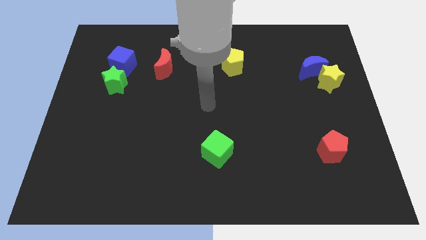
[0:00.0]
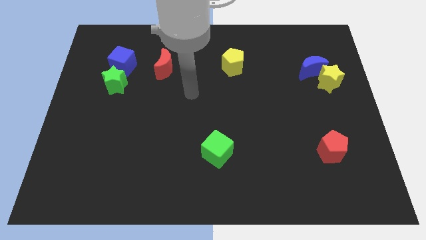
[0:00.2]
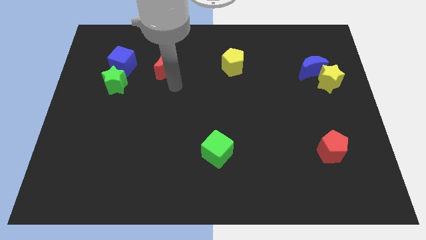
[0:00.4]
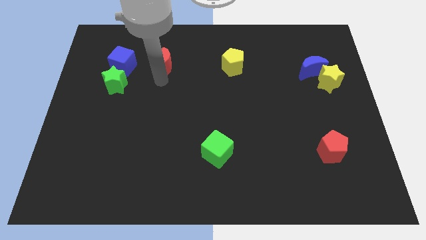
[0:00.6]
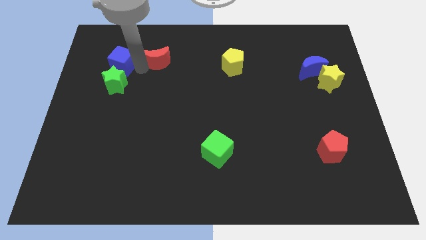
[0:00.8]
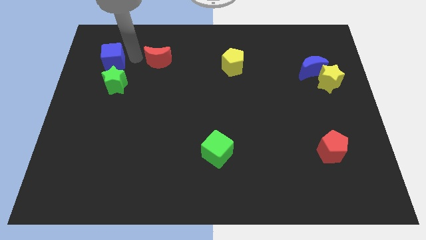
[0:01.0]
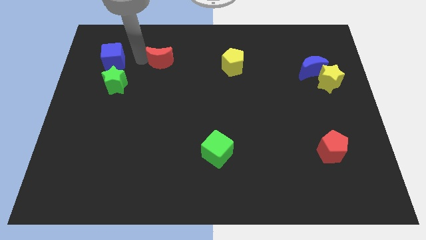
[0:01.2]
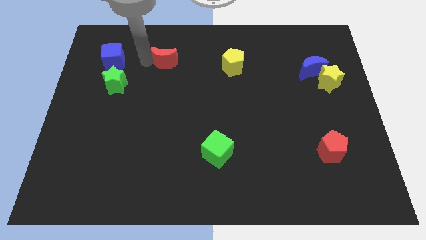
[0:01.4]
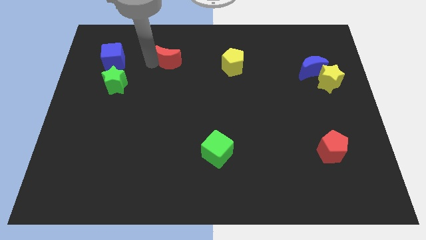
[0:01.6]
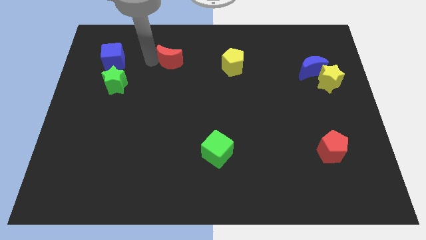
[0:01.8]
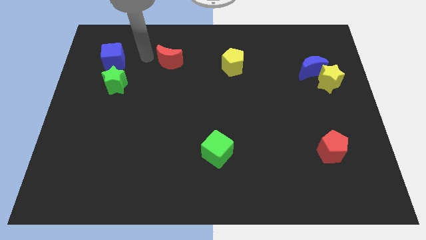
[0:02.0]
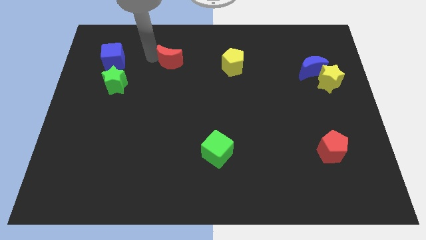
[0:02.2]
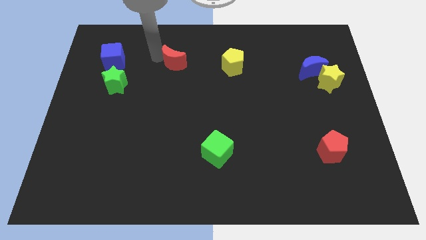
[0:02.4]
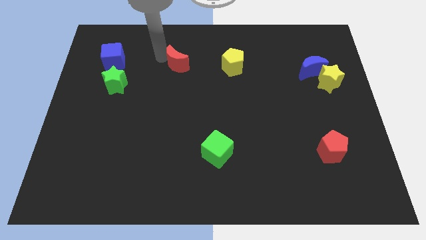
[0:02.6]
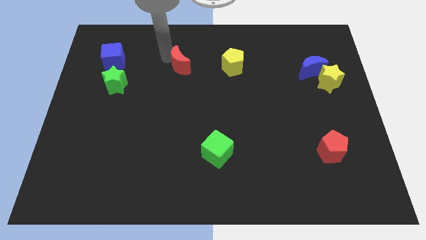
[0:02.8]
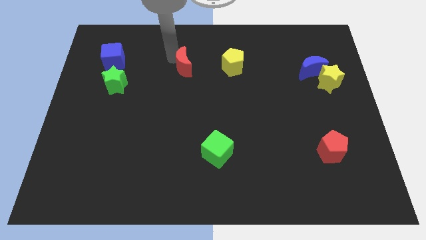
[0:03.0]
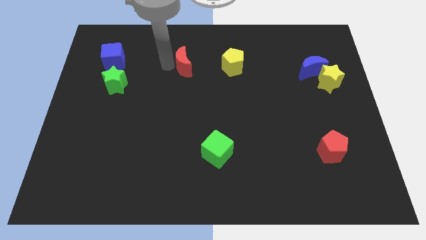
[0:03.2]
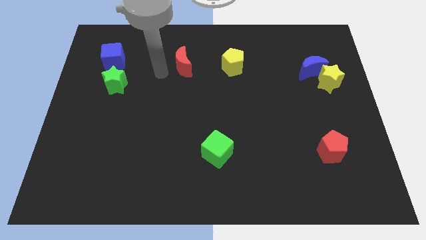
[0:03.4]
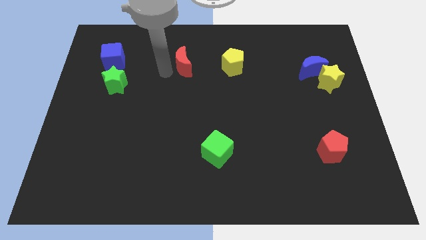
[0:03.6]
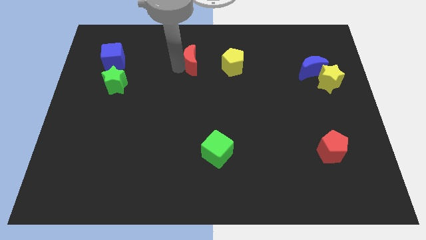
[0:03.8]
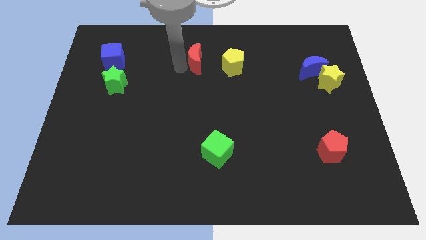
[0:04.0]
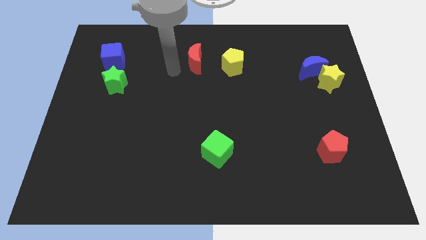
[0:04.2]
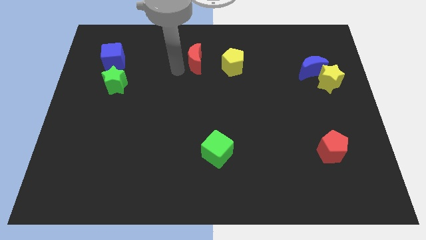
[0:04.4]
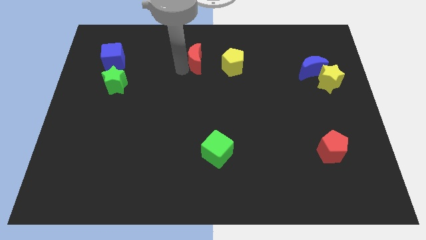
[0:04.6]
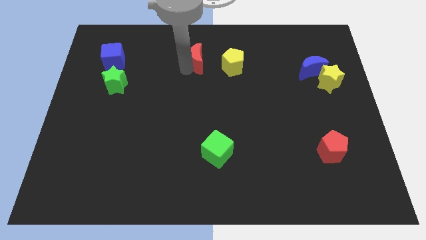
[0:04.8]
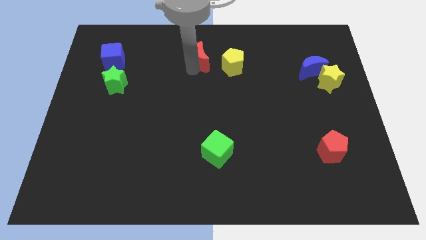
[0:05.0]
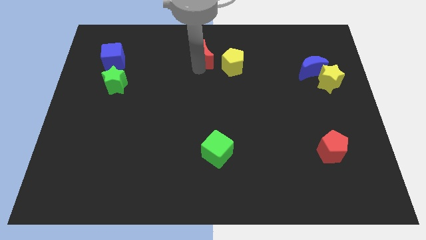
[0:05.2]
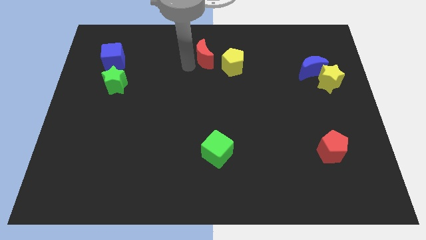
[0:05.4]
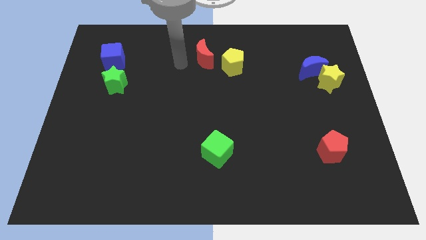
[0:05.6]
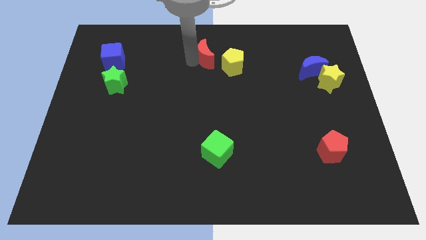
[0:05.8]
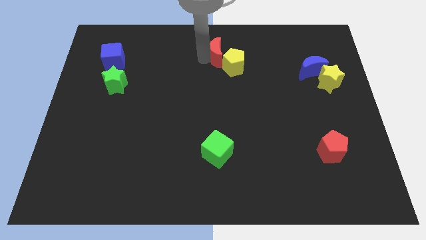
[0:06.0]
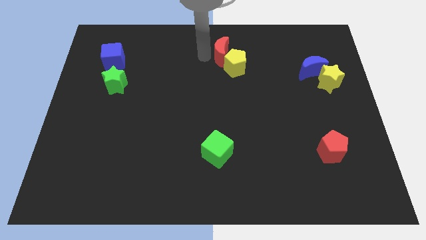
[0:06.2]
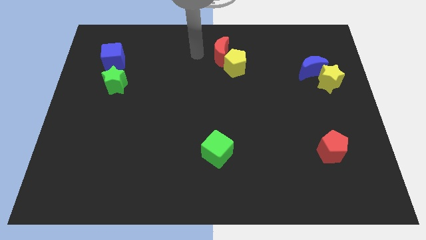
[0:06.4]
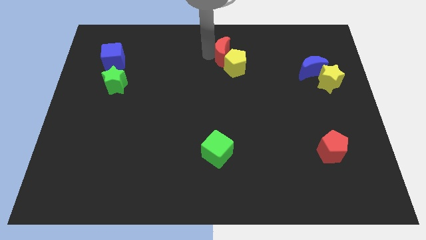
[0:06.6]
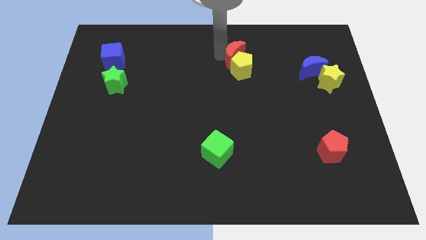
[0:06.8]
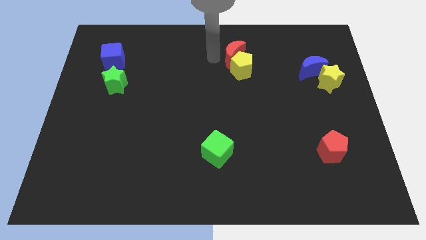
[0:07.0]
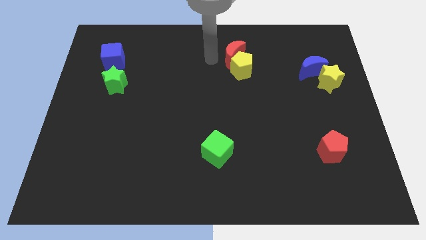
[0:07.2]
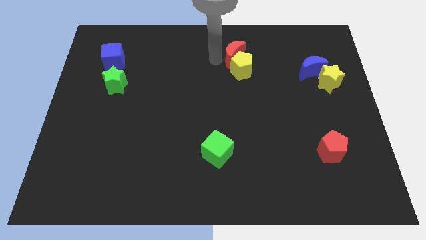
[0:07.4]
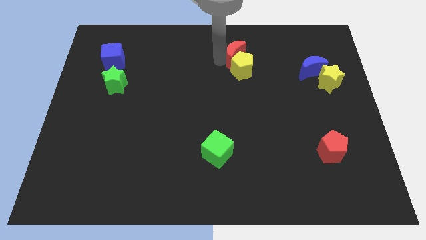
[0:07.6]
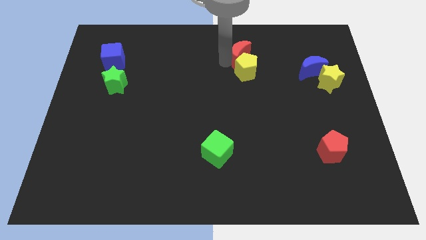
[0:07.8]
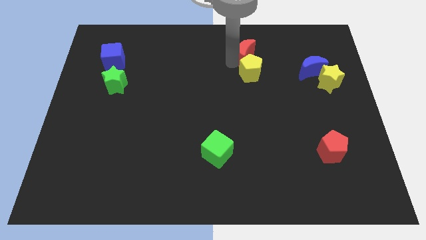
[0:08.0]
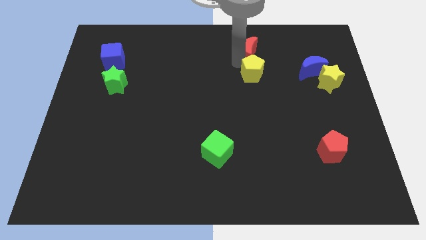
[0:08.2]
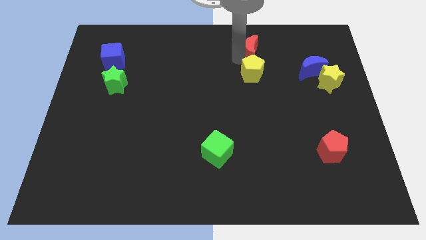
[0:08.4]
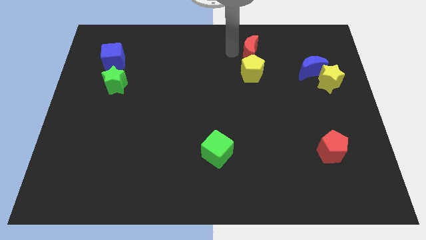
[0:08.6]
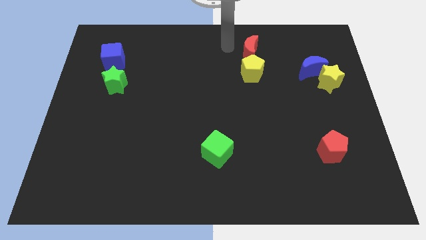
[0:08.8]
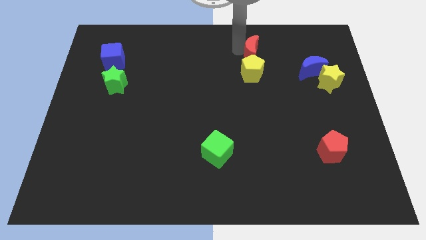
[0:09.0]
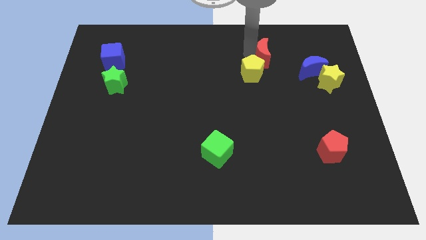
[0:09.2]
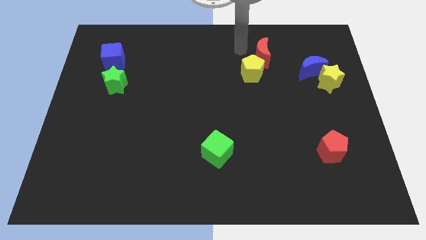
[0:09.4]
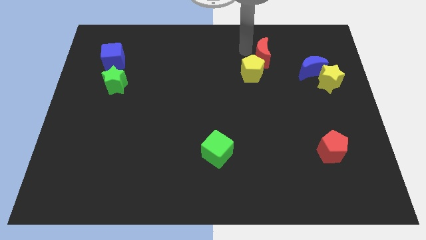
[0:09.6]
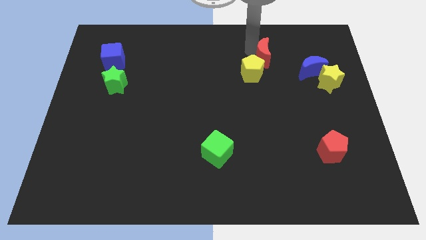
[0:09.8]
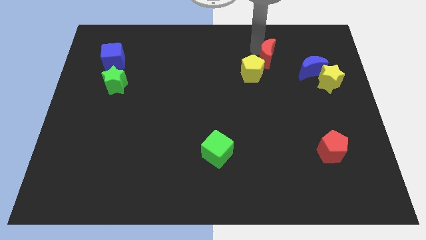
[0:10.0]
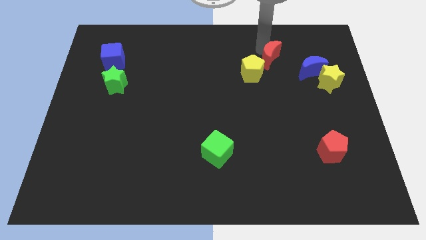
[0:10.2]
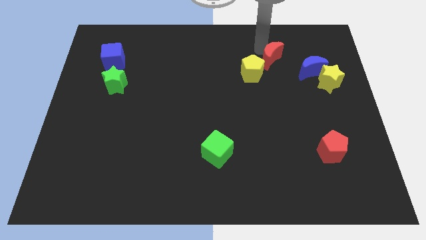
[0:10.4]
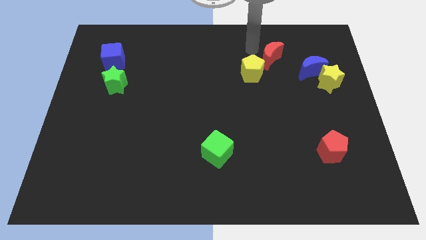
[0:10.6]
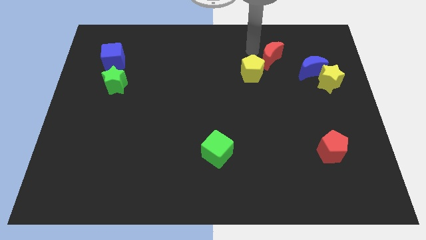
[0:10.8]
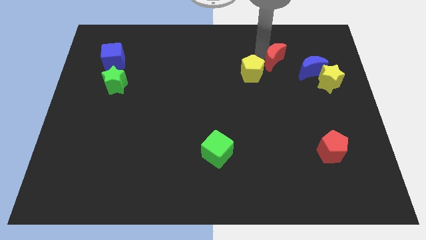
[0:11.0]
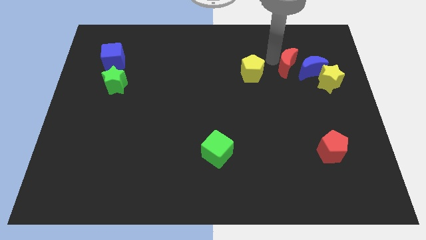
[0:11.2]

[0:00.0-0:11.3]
move the red moon next to the blue moon

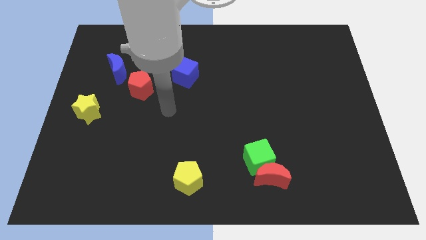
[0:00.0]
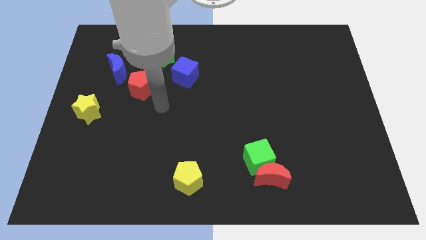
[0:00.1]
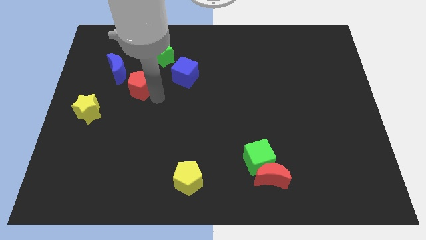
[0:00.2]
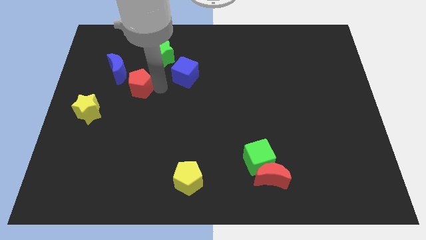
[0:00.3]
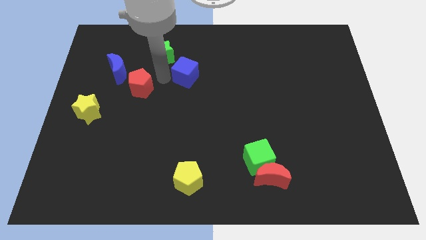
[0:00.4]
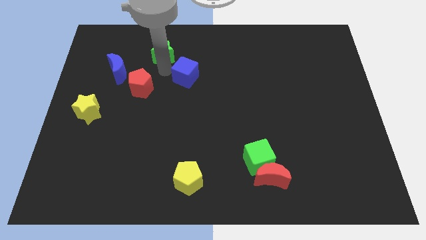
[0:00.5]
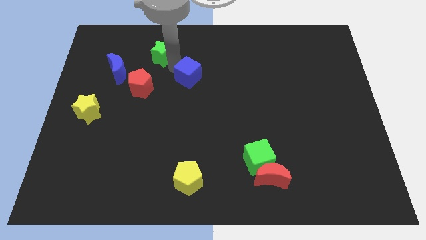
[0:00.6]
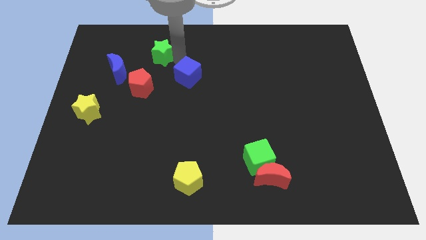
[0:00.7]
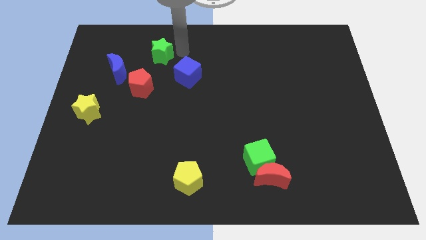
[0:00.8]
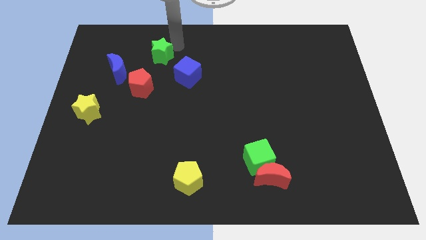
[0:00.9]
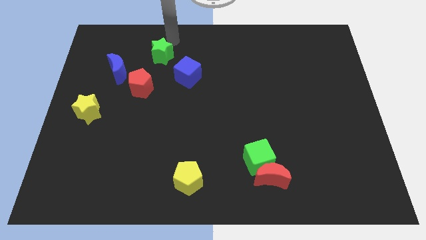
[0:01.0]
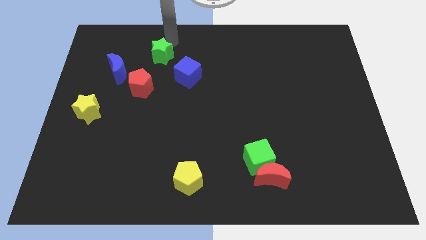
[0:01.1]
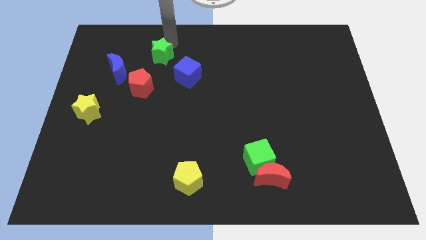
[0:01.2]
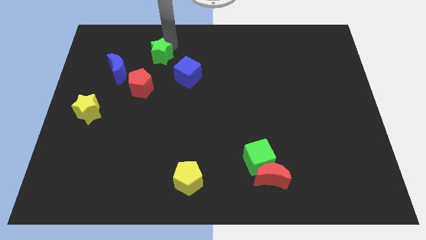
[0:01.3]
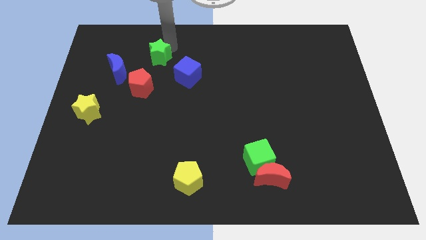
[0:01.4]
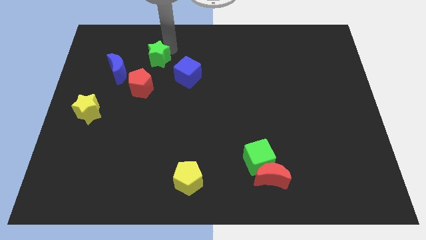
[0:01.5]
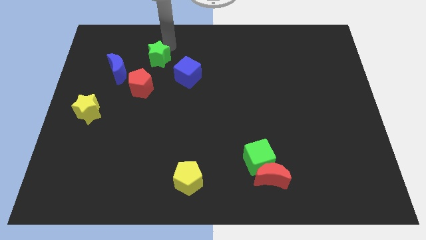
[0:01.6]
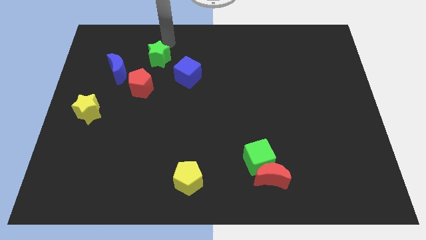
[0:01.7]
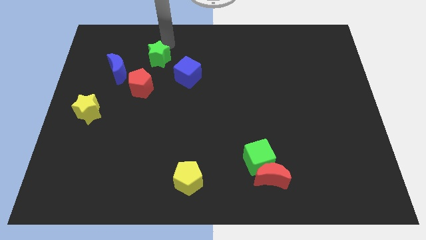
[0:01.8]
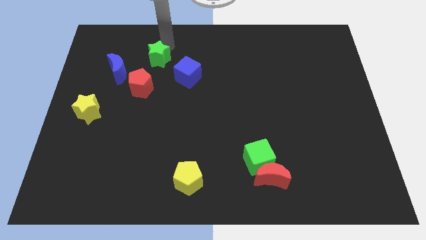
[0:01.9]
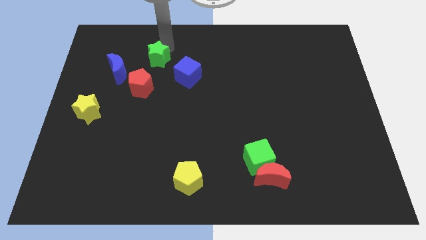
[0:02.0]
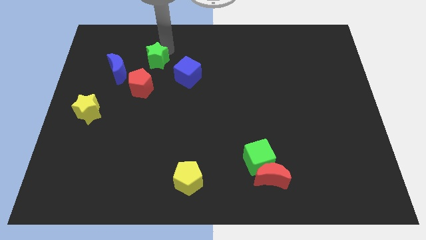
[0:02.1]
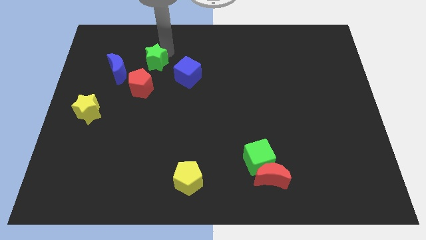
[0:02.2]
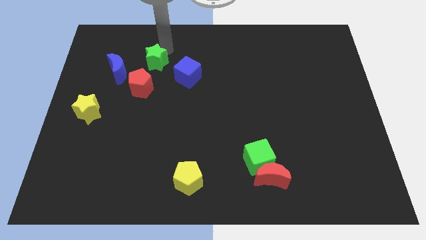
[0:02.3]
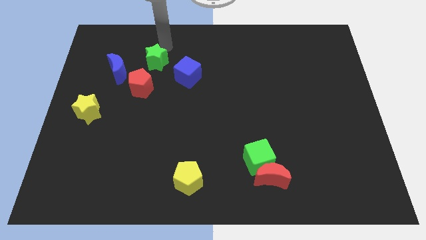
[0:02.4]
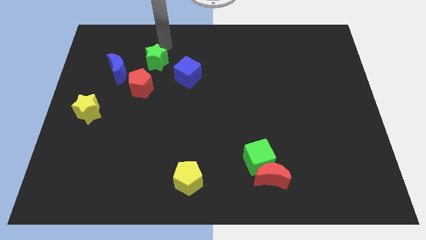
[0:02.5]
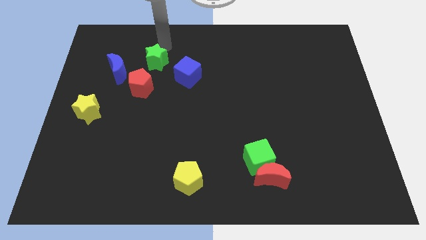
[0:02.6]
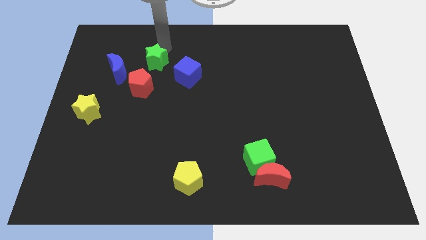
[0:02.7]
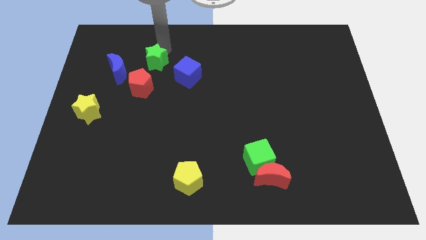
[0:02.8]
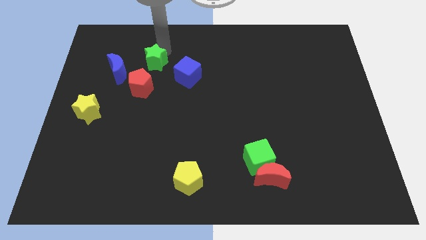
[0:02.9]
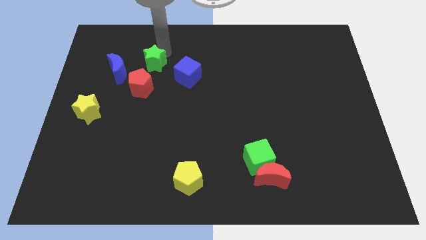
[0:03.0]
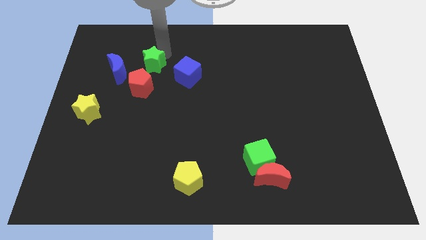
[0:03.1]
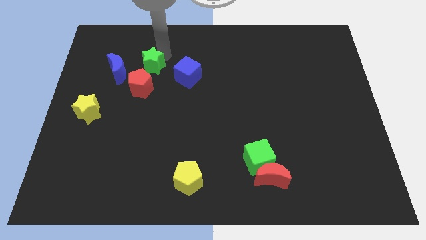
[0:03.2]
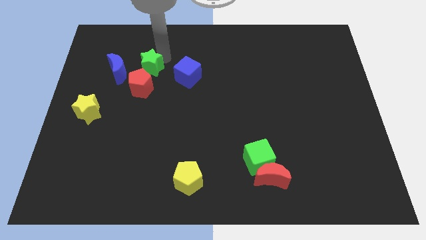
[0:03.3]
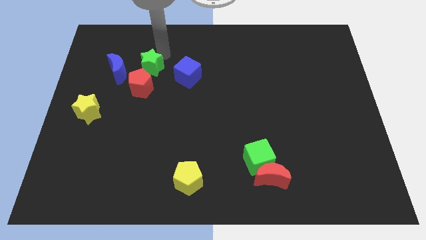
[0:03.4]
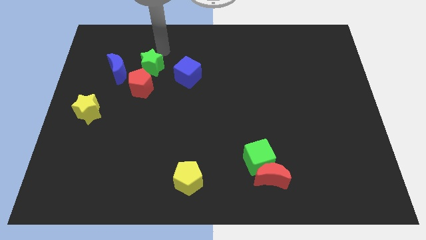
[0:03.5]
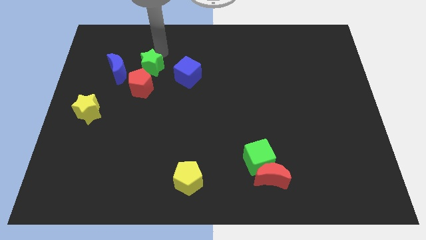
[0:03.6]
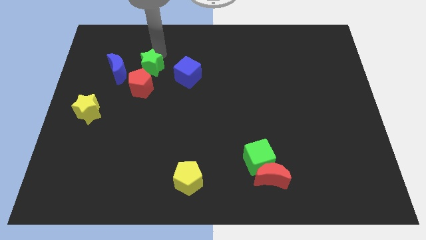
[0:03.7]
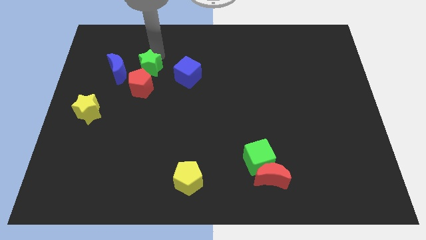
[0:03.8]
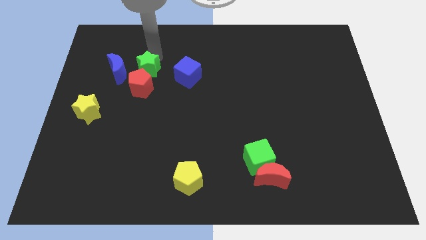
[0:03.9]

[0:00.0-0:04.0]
slide the green star to the red pentagon
